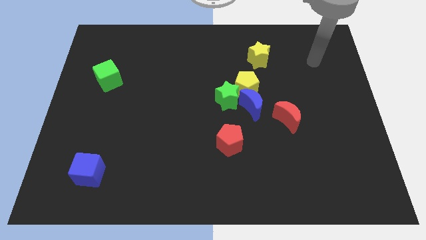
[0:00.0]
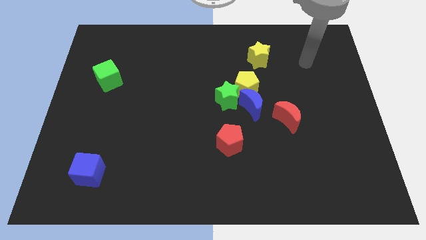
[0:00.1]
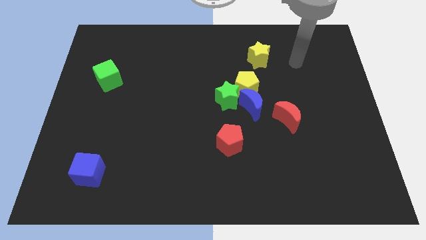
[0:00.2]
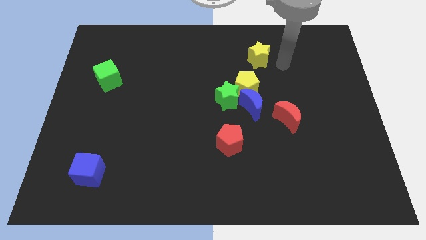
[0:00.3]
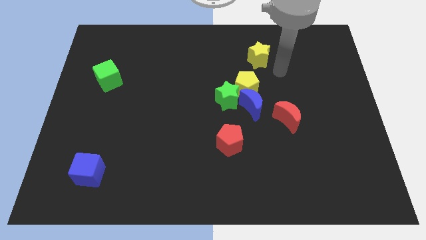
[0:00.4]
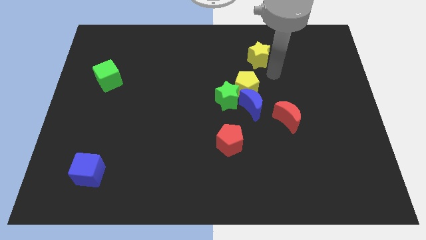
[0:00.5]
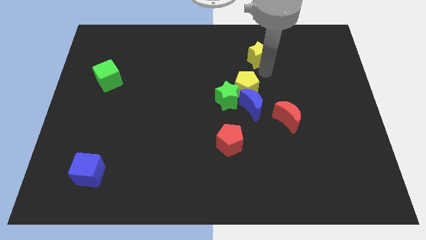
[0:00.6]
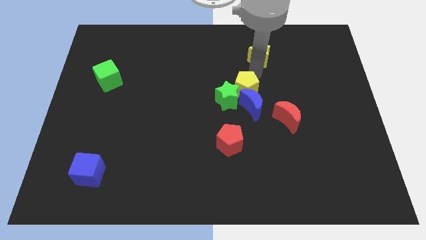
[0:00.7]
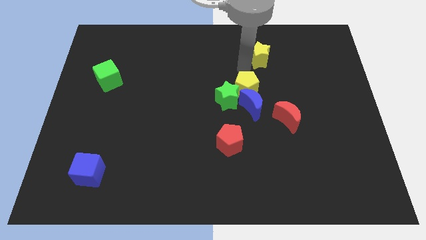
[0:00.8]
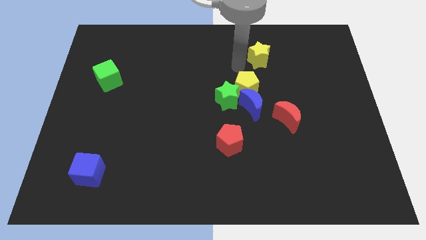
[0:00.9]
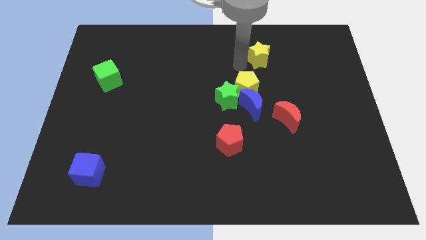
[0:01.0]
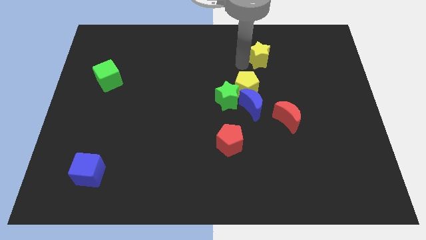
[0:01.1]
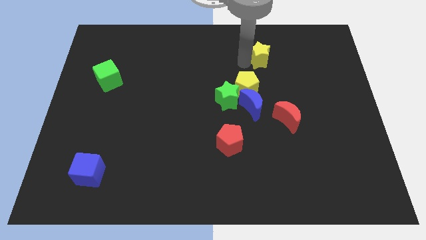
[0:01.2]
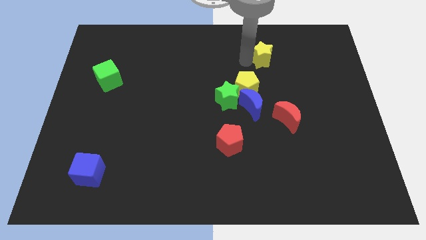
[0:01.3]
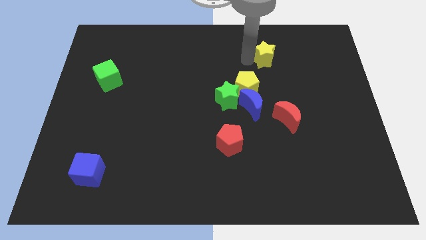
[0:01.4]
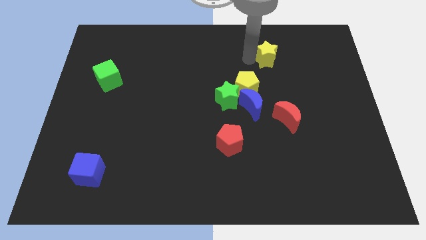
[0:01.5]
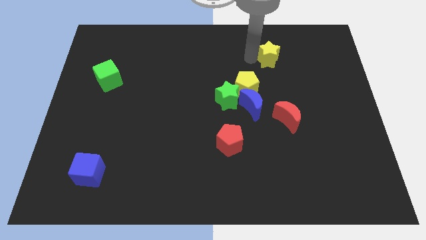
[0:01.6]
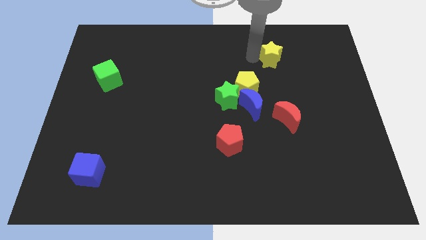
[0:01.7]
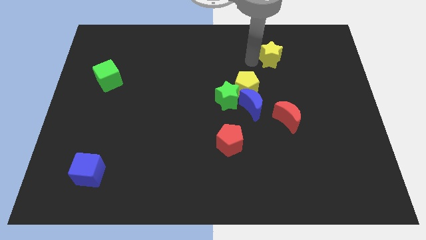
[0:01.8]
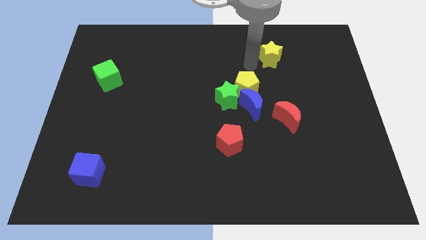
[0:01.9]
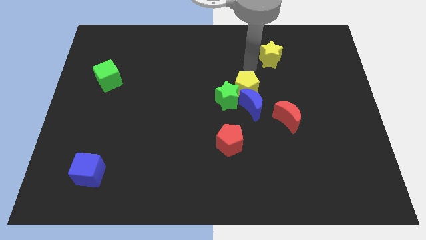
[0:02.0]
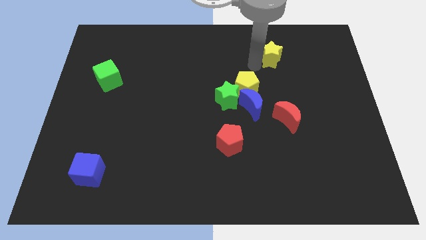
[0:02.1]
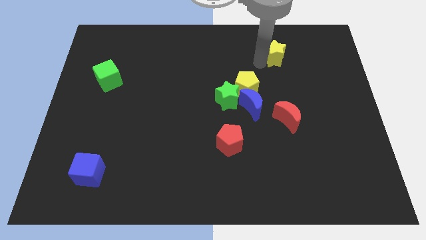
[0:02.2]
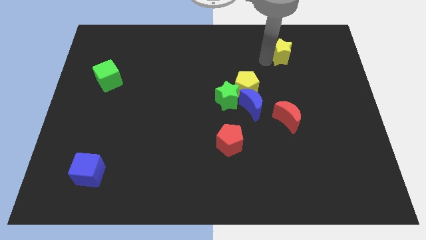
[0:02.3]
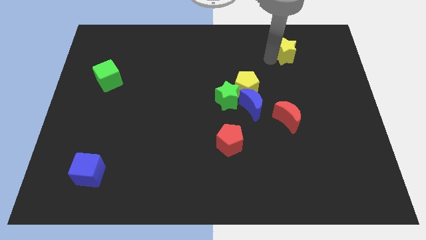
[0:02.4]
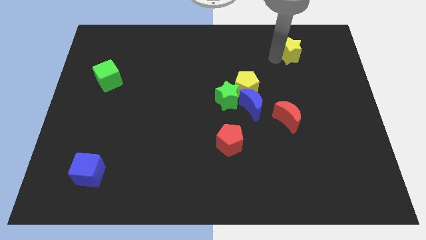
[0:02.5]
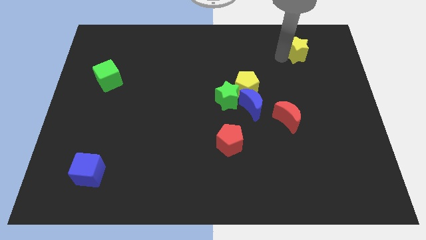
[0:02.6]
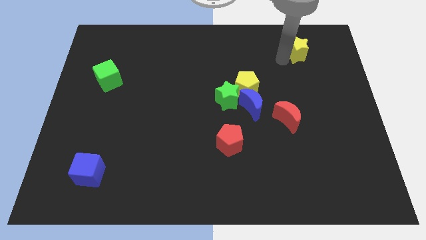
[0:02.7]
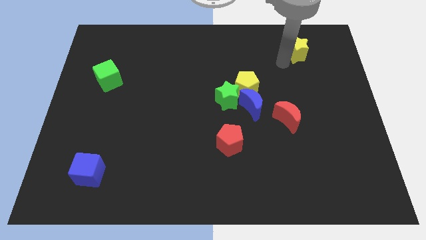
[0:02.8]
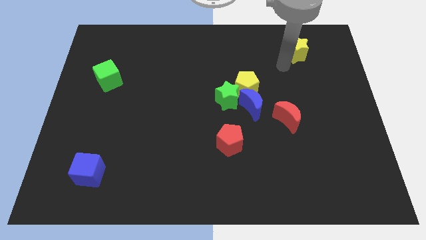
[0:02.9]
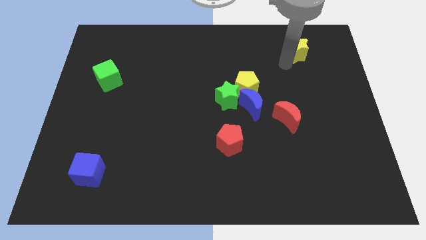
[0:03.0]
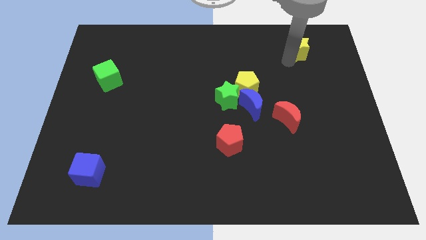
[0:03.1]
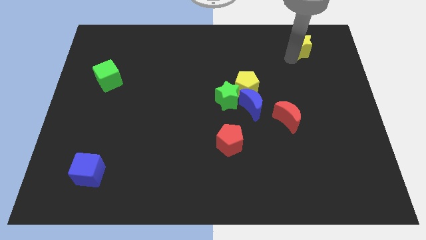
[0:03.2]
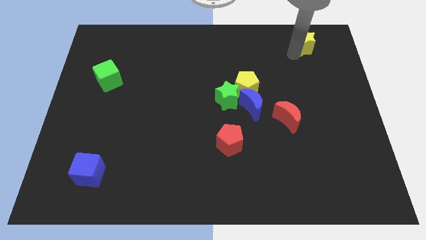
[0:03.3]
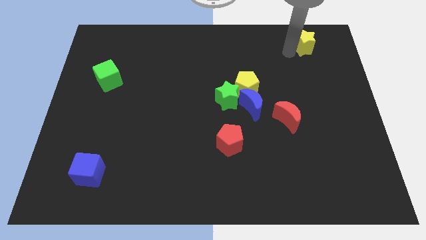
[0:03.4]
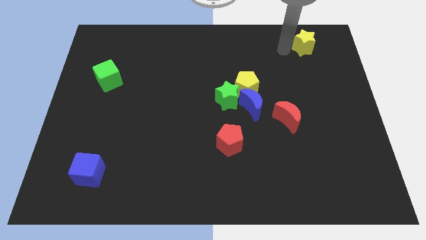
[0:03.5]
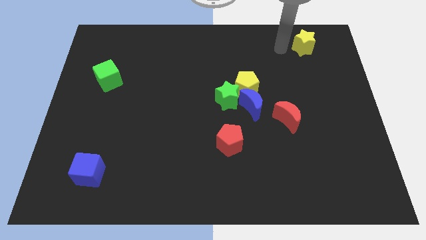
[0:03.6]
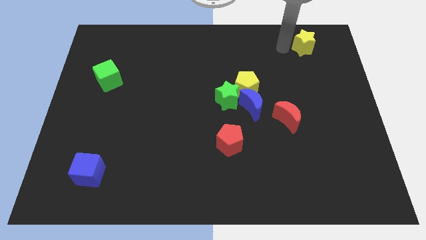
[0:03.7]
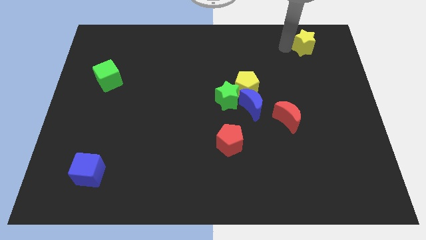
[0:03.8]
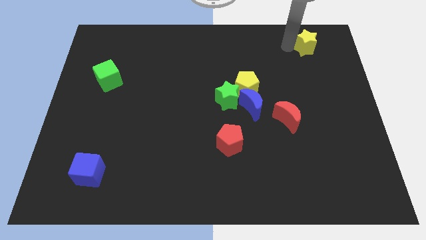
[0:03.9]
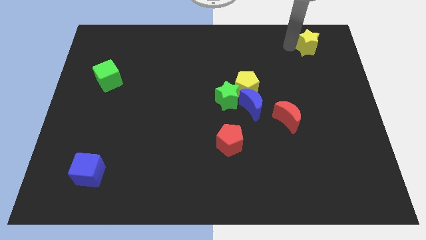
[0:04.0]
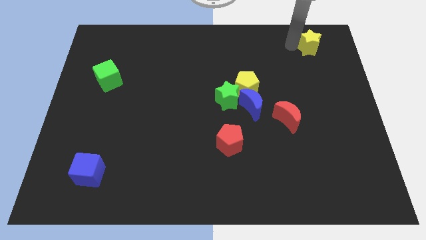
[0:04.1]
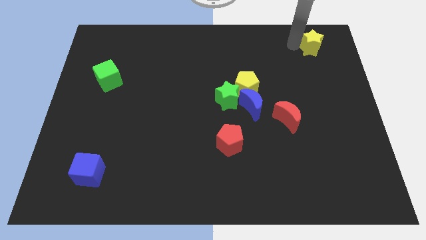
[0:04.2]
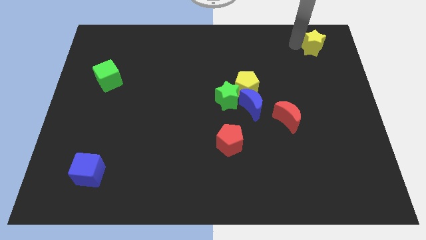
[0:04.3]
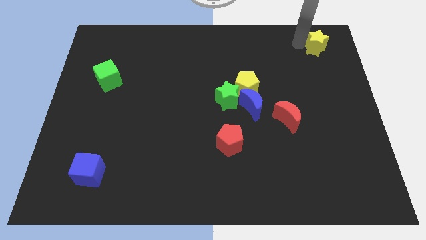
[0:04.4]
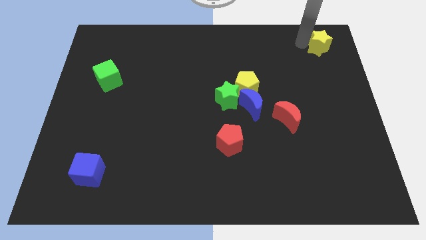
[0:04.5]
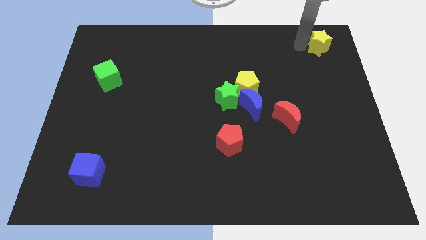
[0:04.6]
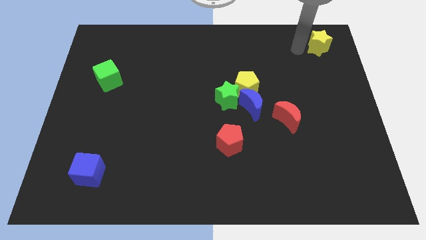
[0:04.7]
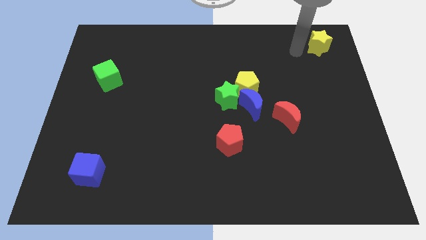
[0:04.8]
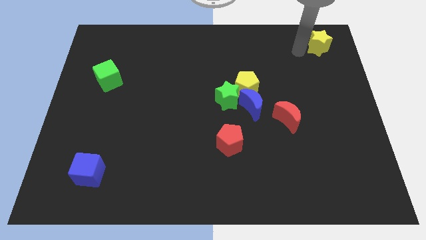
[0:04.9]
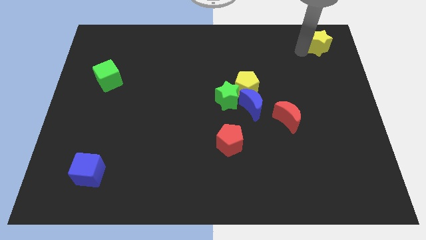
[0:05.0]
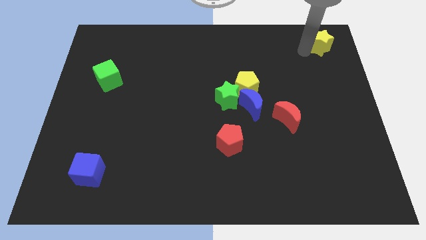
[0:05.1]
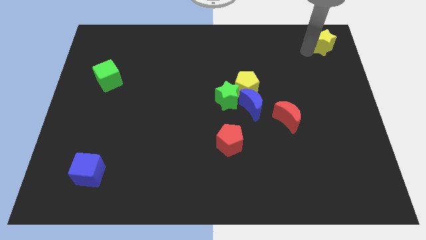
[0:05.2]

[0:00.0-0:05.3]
put the yellow star to the top right corner

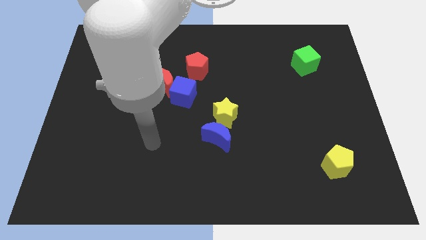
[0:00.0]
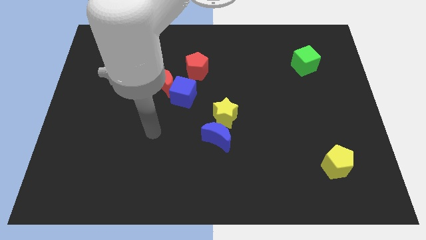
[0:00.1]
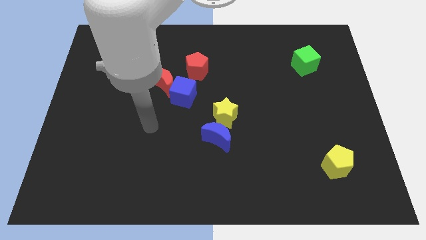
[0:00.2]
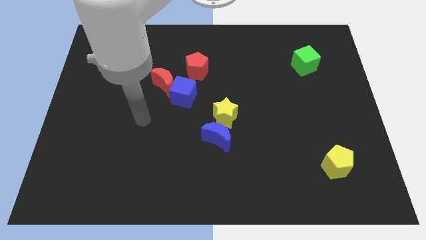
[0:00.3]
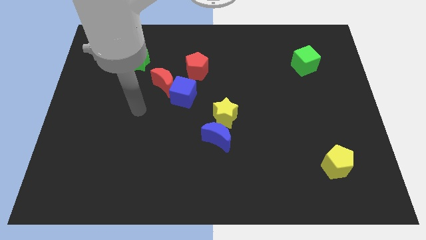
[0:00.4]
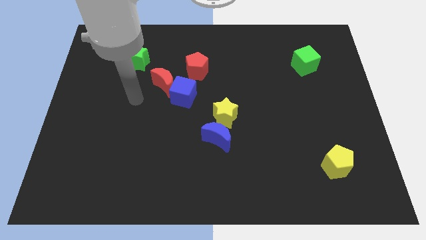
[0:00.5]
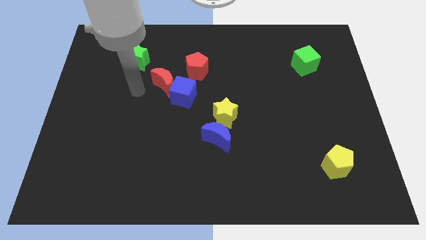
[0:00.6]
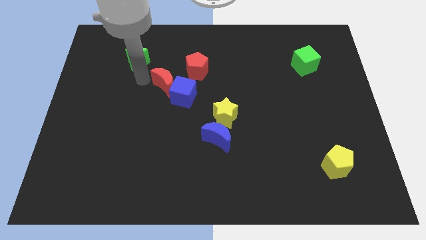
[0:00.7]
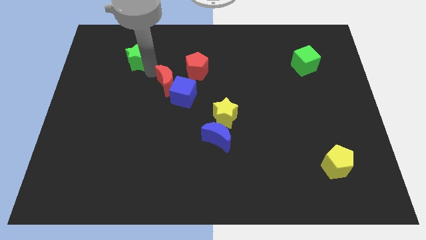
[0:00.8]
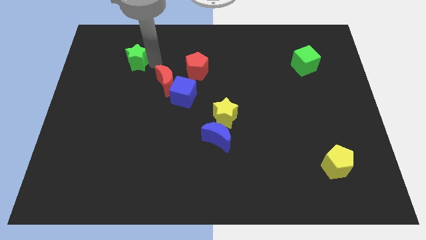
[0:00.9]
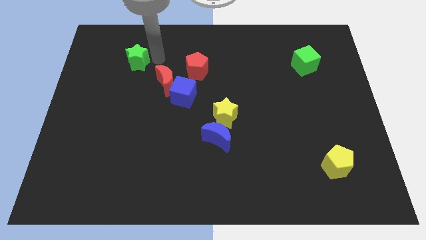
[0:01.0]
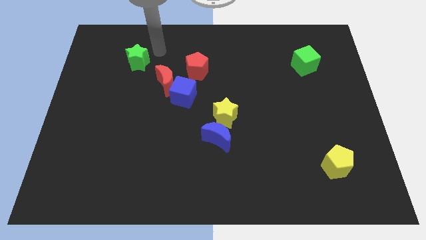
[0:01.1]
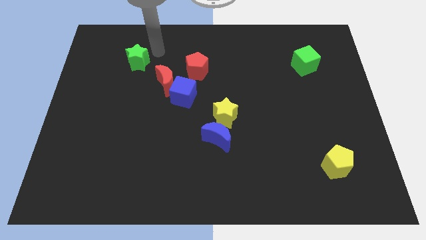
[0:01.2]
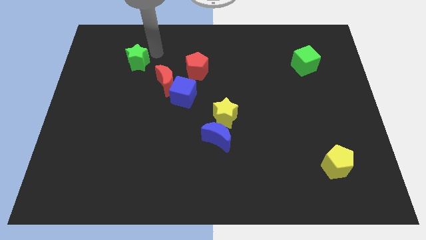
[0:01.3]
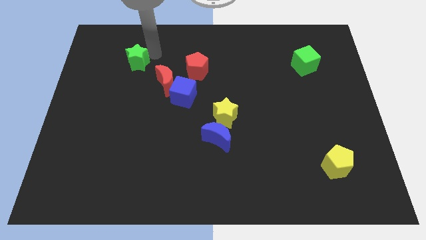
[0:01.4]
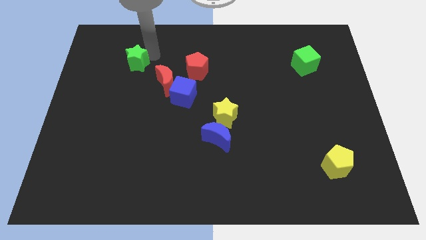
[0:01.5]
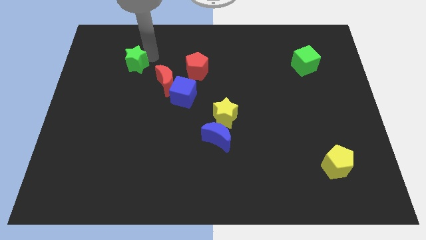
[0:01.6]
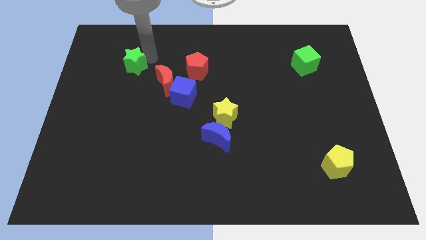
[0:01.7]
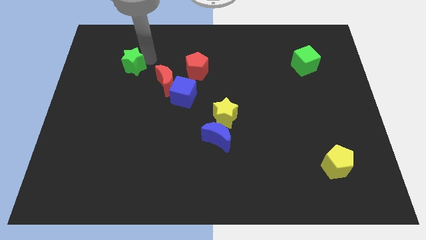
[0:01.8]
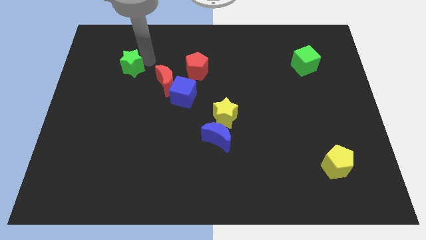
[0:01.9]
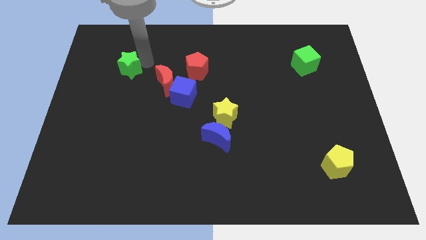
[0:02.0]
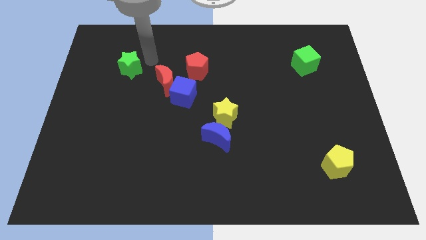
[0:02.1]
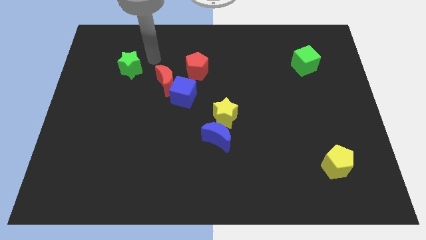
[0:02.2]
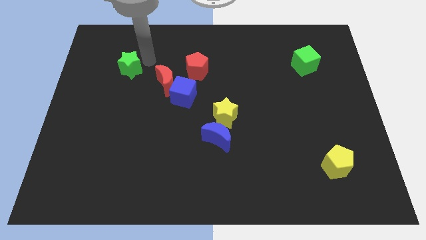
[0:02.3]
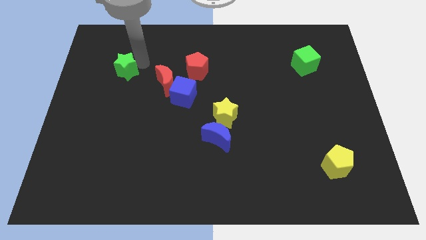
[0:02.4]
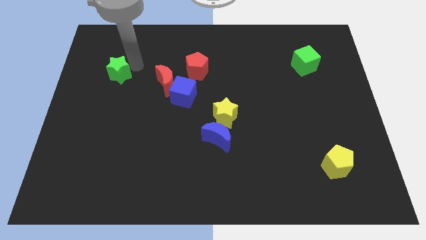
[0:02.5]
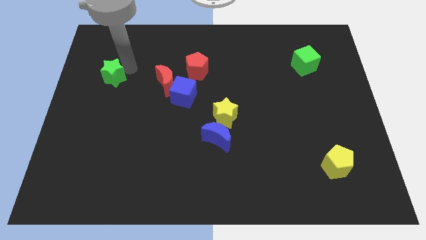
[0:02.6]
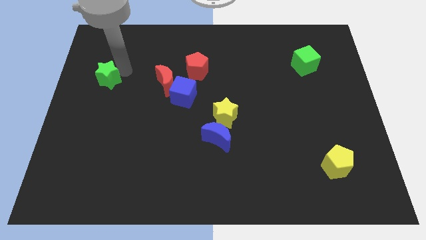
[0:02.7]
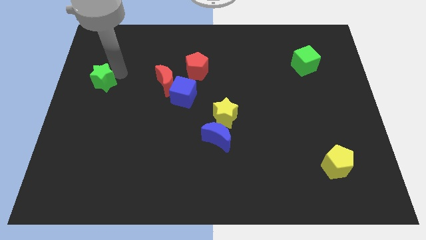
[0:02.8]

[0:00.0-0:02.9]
move the green star to the center left
